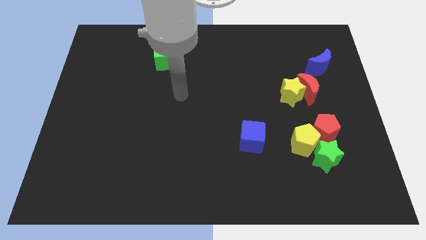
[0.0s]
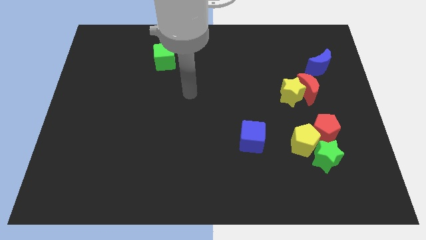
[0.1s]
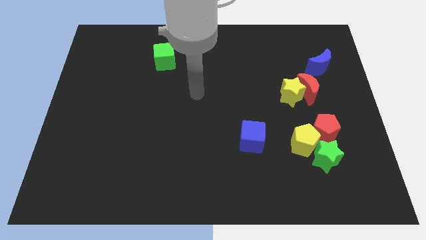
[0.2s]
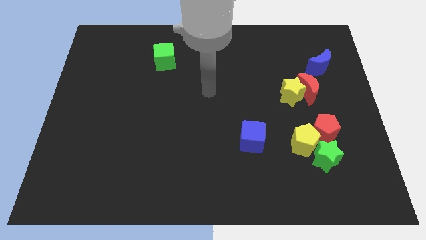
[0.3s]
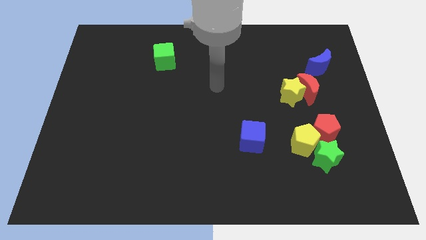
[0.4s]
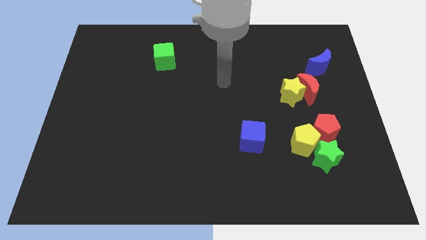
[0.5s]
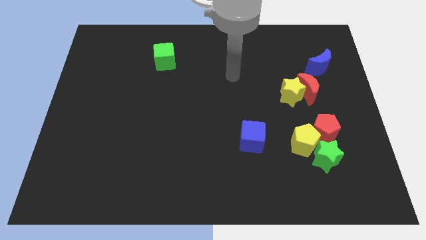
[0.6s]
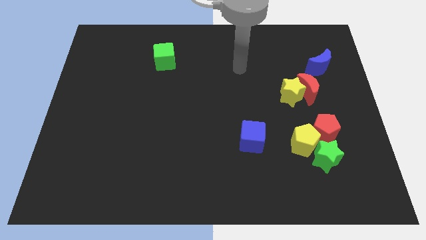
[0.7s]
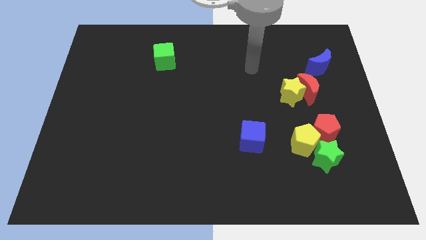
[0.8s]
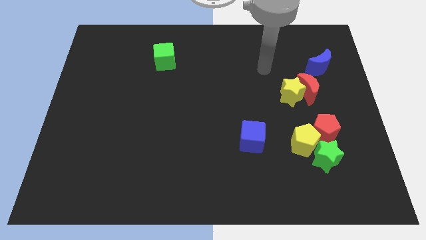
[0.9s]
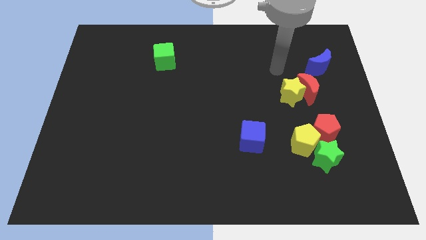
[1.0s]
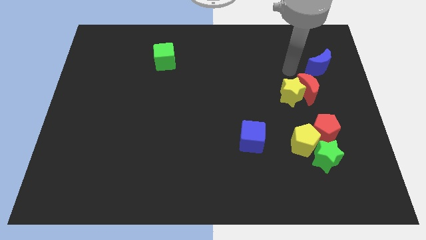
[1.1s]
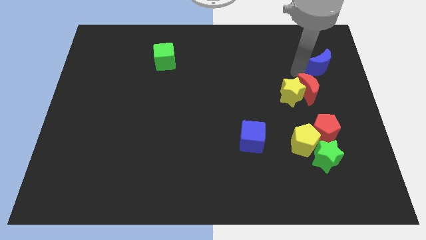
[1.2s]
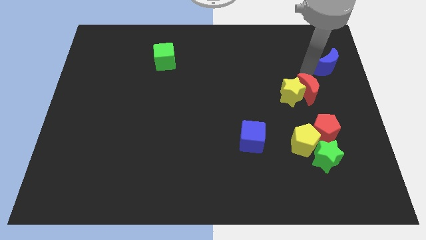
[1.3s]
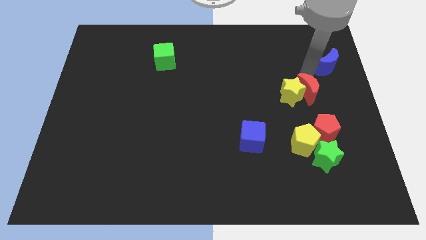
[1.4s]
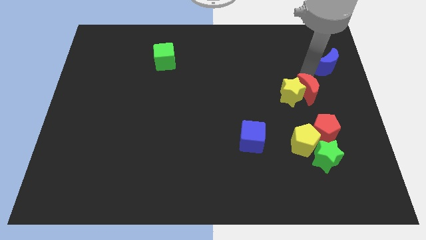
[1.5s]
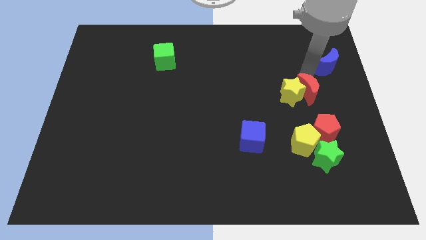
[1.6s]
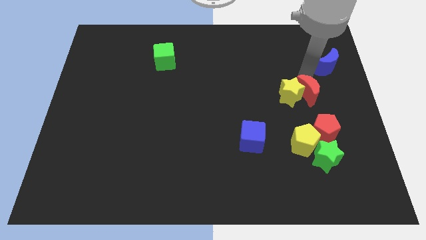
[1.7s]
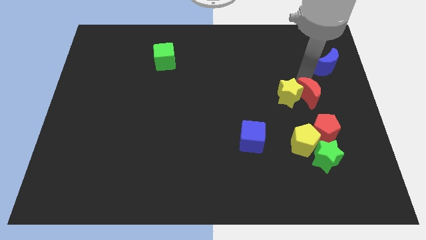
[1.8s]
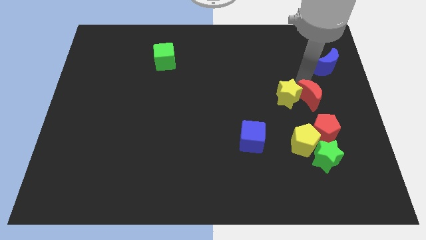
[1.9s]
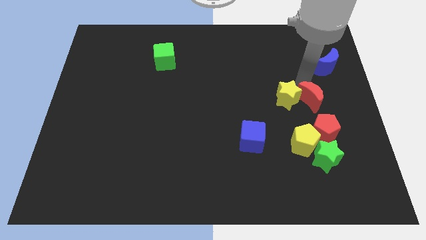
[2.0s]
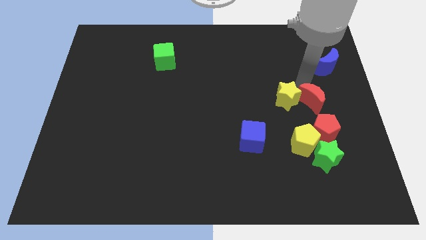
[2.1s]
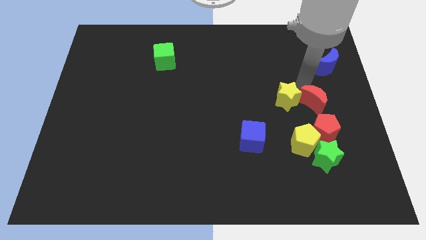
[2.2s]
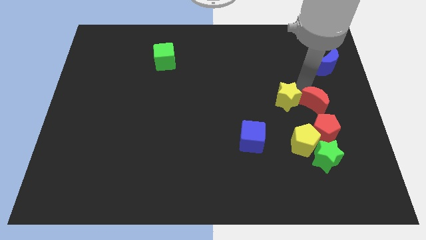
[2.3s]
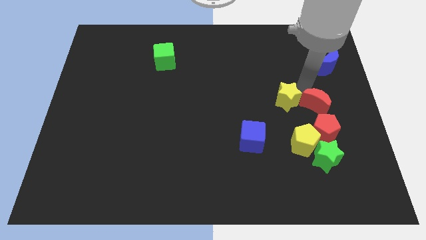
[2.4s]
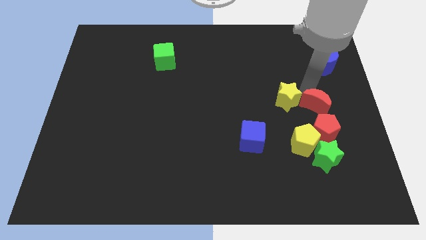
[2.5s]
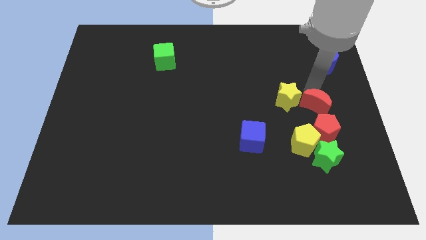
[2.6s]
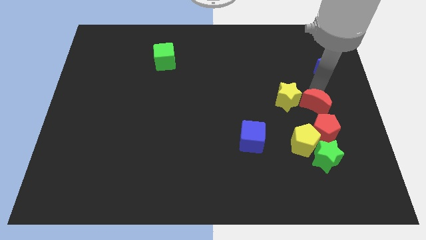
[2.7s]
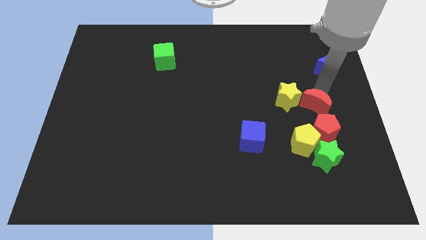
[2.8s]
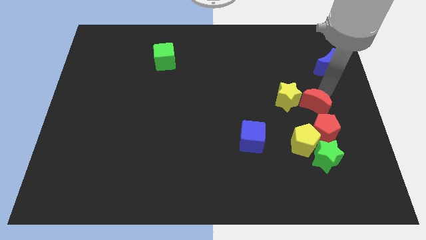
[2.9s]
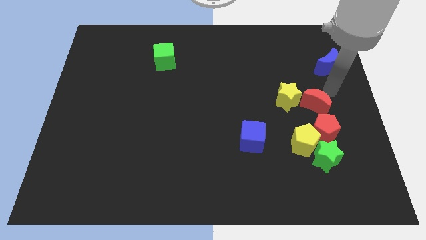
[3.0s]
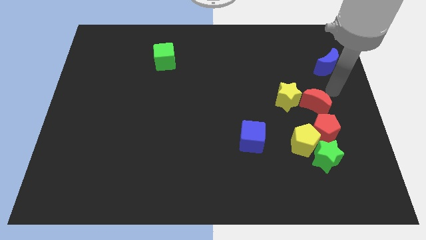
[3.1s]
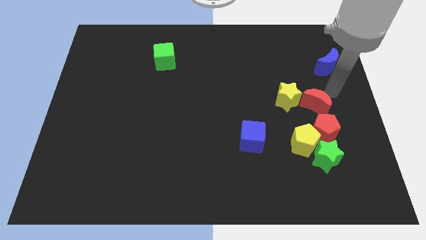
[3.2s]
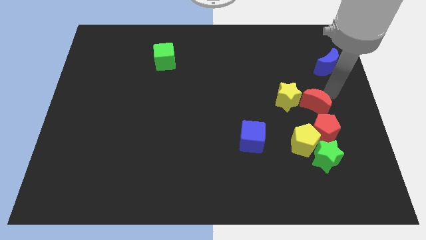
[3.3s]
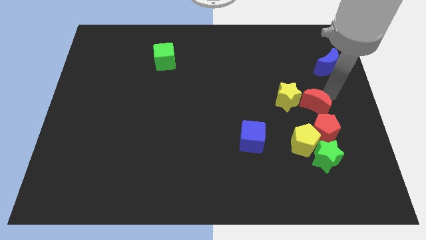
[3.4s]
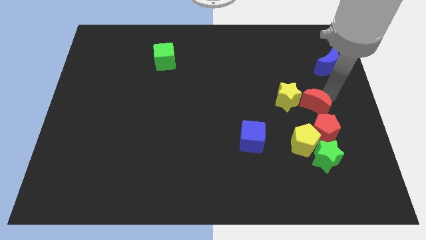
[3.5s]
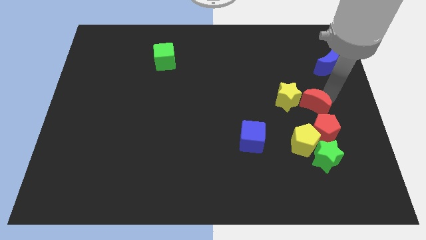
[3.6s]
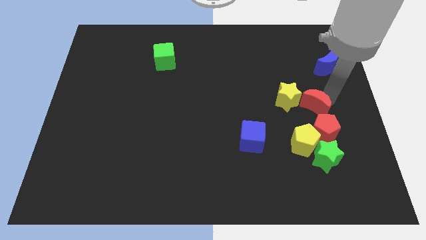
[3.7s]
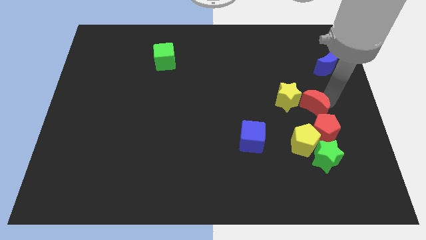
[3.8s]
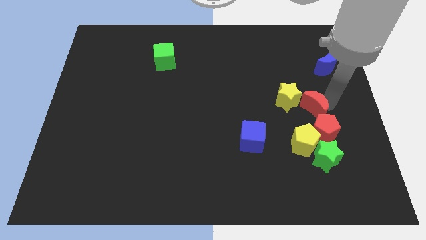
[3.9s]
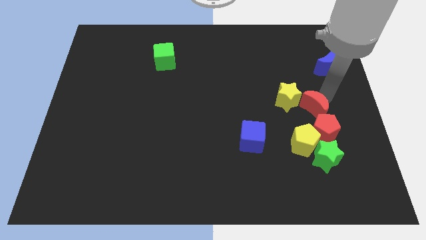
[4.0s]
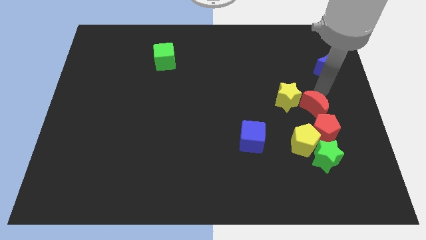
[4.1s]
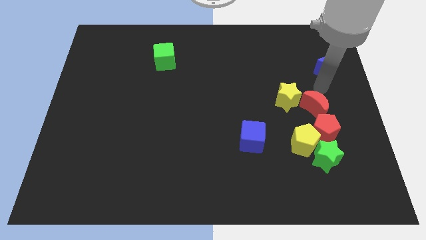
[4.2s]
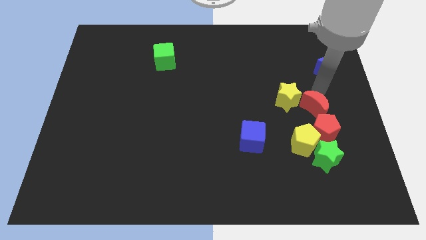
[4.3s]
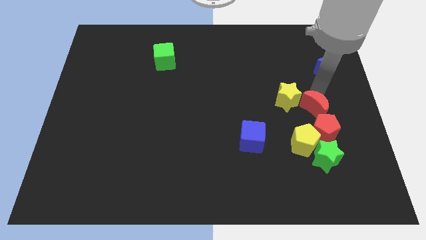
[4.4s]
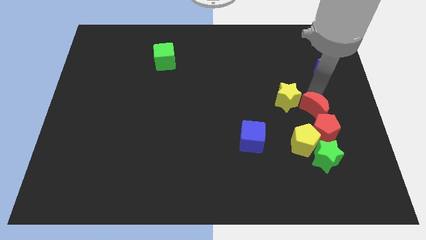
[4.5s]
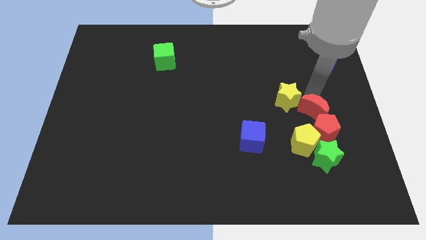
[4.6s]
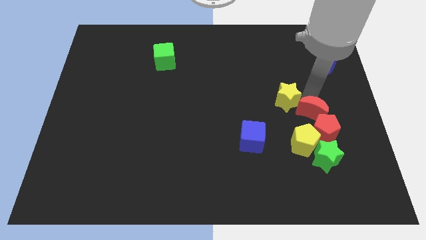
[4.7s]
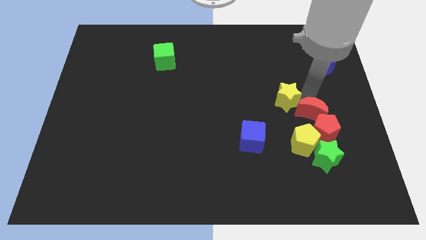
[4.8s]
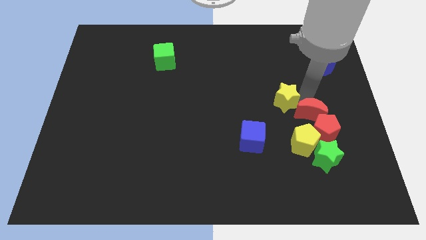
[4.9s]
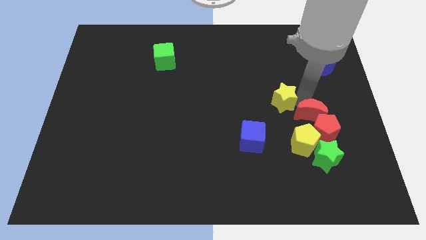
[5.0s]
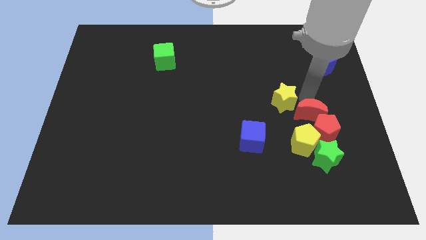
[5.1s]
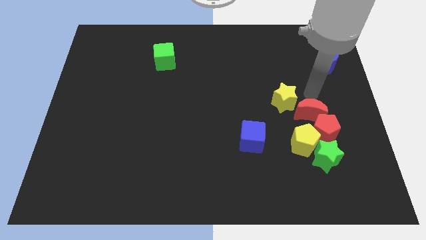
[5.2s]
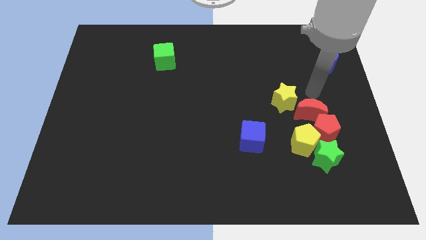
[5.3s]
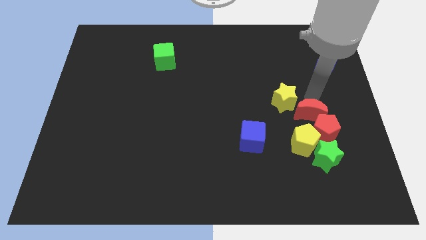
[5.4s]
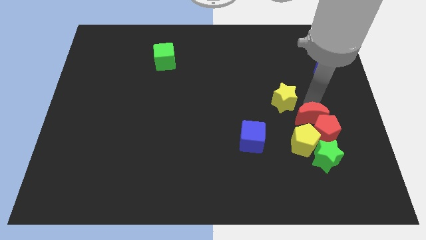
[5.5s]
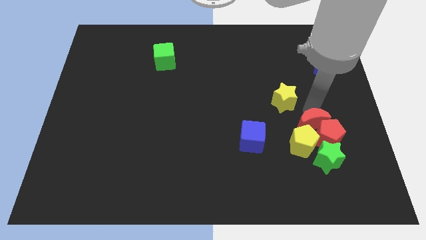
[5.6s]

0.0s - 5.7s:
slide the red moon towards the yellow pentagon
